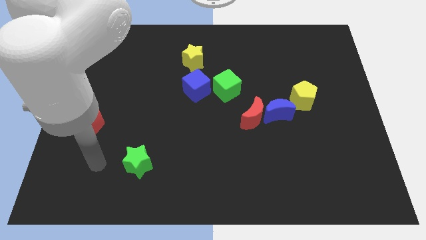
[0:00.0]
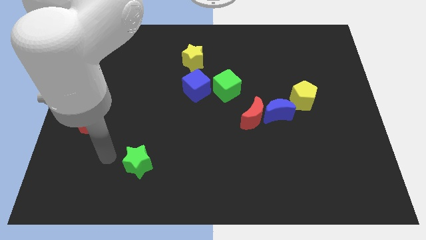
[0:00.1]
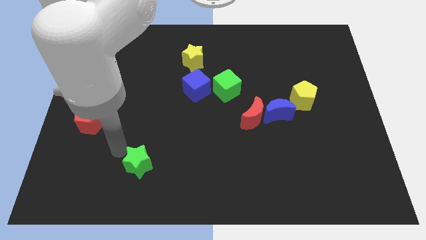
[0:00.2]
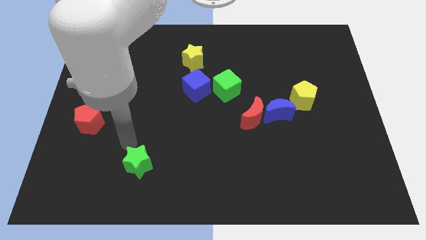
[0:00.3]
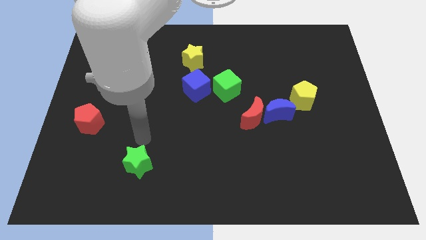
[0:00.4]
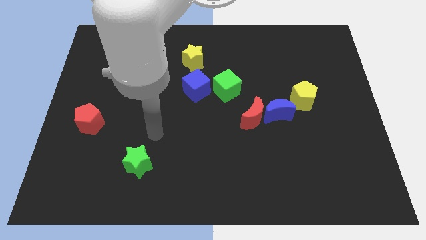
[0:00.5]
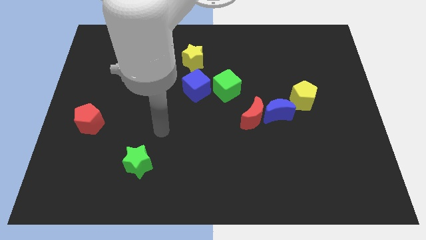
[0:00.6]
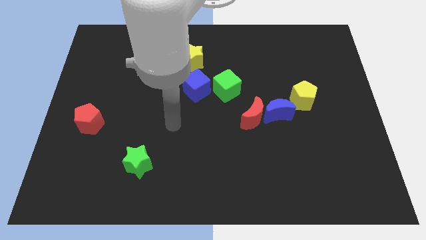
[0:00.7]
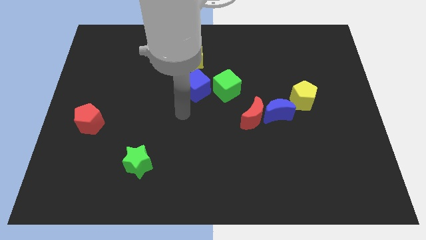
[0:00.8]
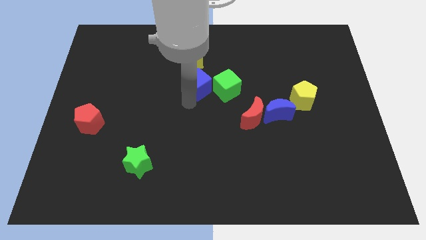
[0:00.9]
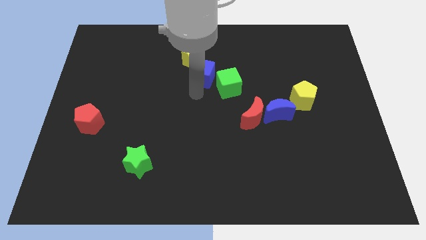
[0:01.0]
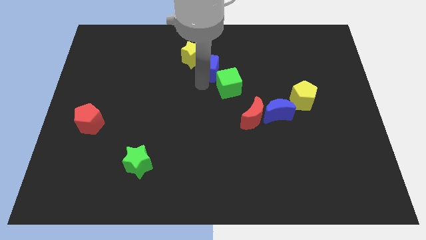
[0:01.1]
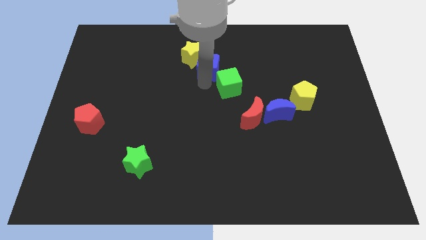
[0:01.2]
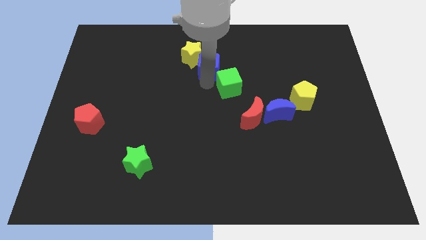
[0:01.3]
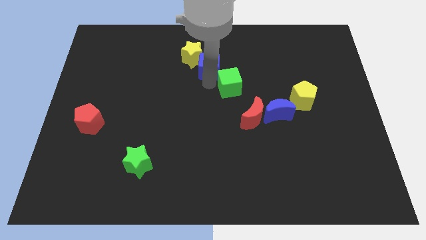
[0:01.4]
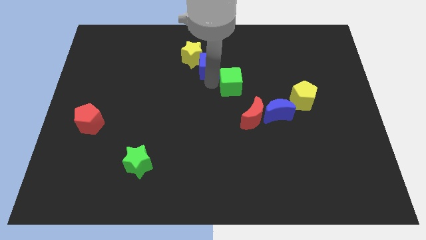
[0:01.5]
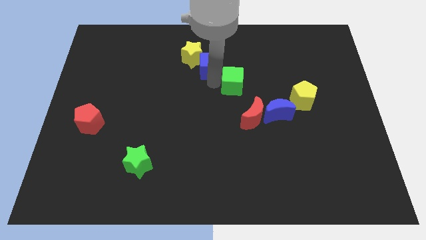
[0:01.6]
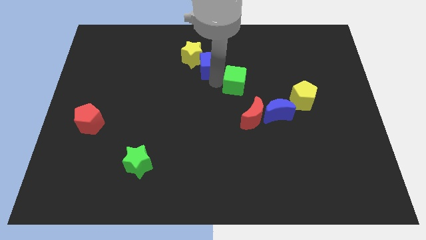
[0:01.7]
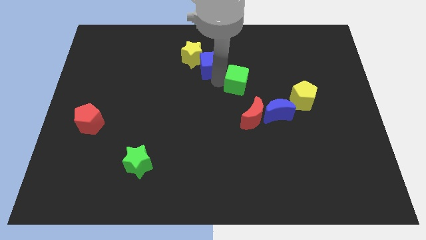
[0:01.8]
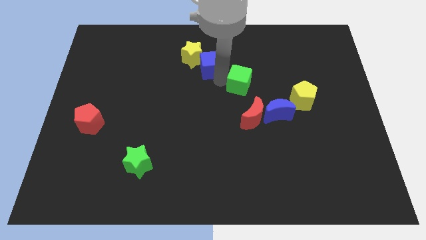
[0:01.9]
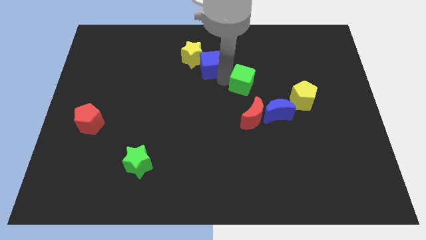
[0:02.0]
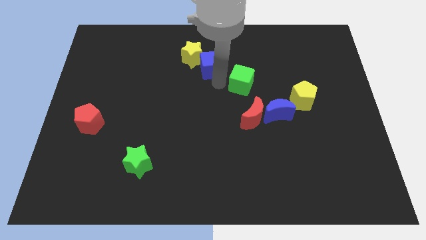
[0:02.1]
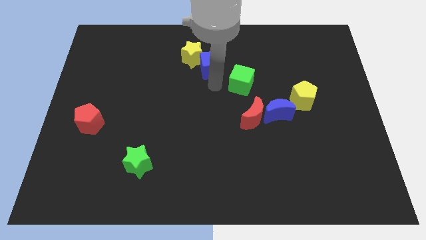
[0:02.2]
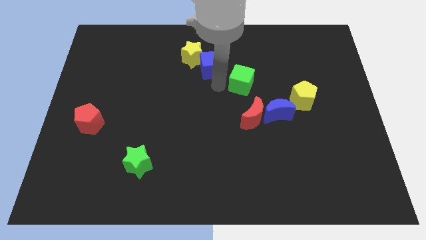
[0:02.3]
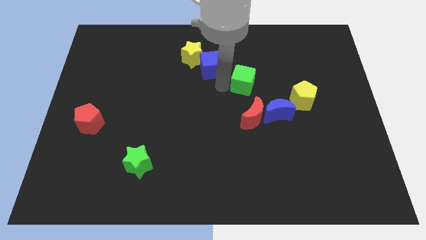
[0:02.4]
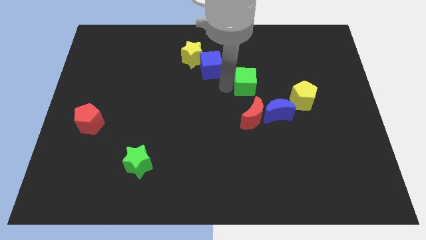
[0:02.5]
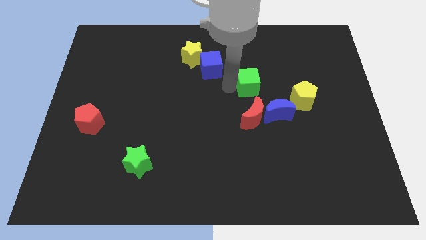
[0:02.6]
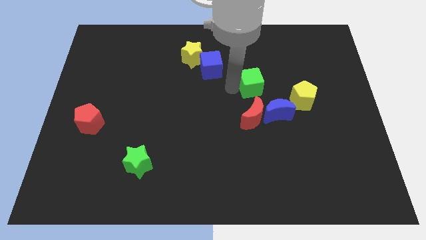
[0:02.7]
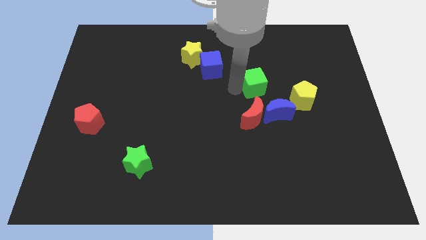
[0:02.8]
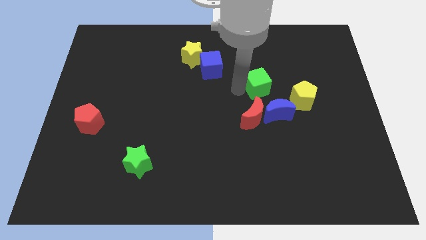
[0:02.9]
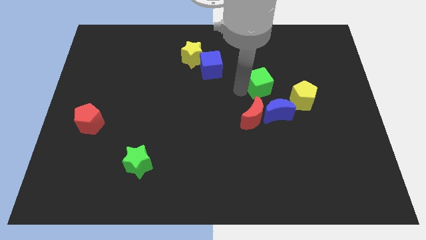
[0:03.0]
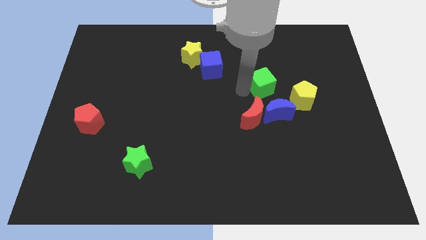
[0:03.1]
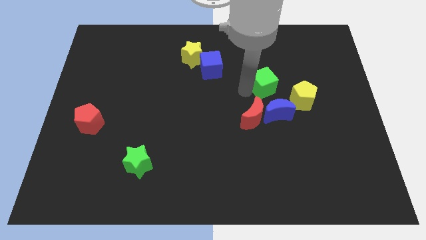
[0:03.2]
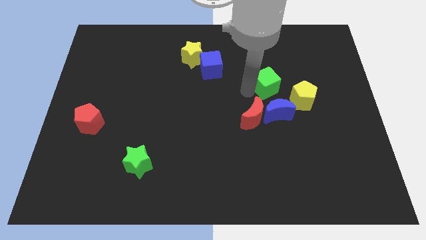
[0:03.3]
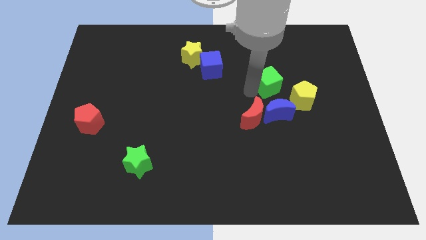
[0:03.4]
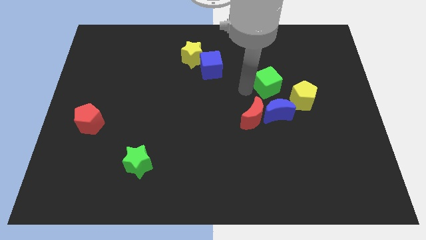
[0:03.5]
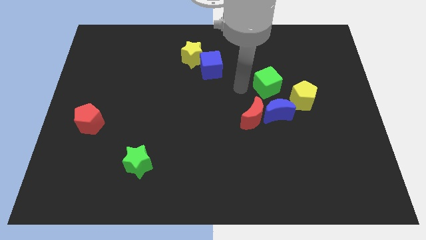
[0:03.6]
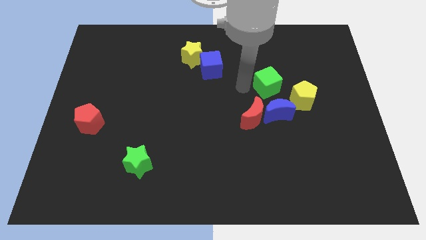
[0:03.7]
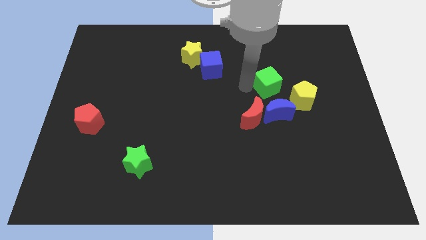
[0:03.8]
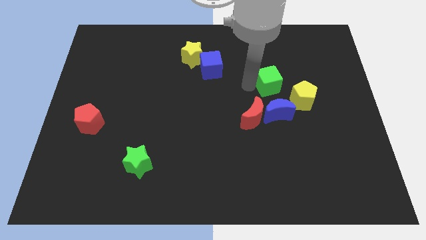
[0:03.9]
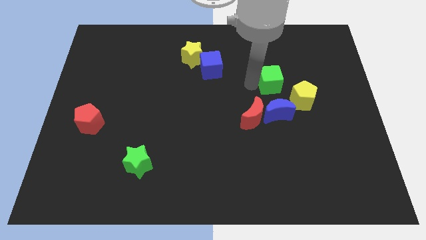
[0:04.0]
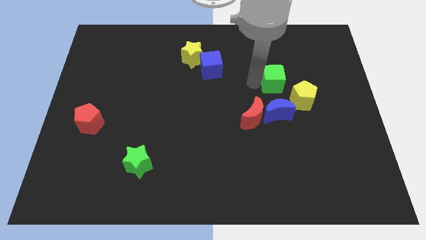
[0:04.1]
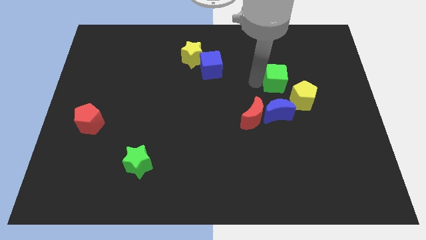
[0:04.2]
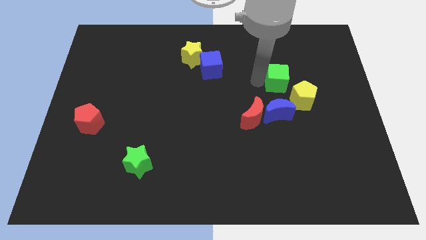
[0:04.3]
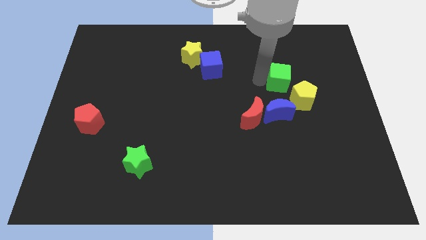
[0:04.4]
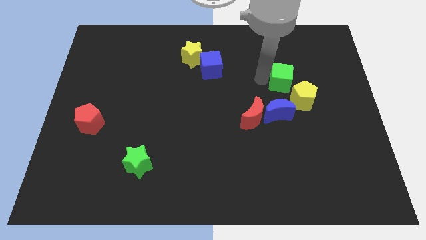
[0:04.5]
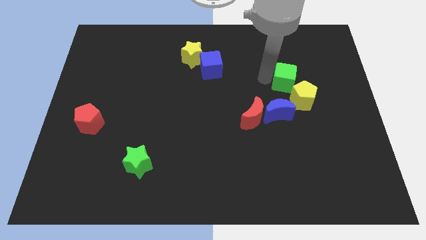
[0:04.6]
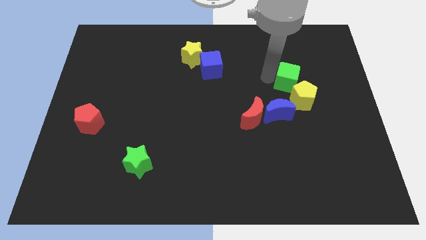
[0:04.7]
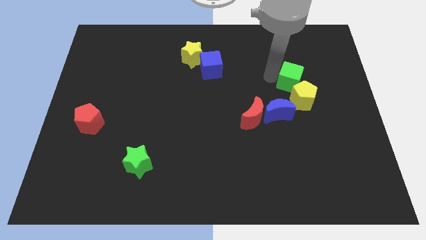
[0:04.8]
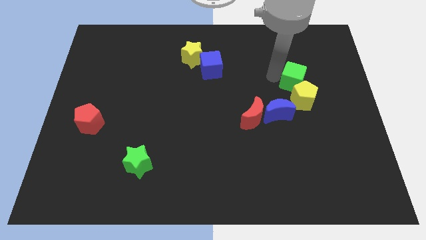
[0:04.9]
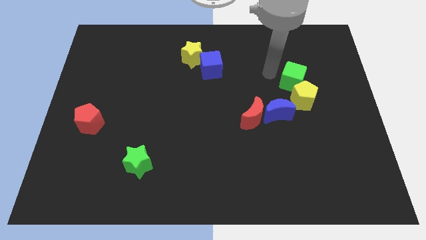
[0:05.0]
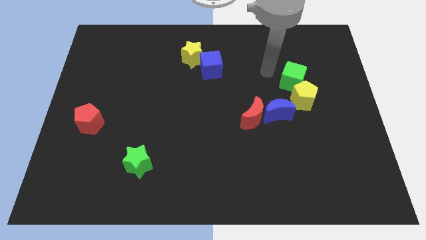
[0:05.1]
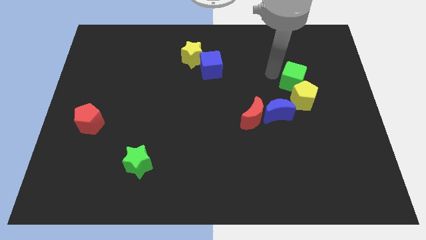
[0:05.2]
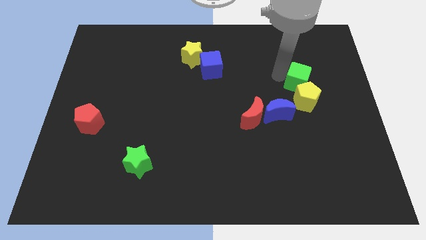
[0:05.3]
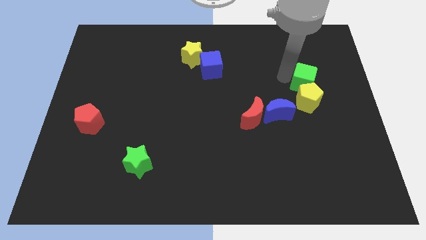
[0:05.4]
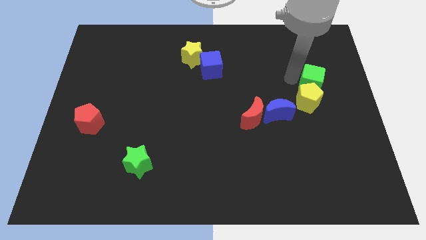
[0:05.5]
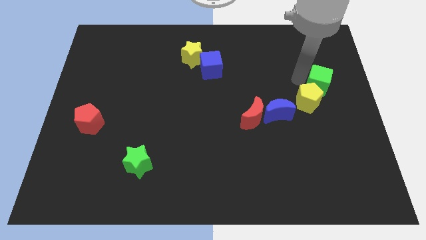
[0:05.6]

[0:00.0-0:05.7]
slide the green cube to the center right
